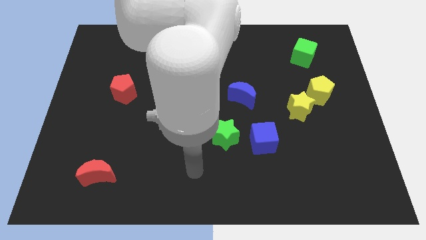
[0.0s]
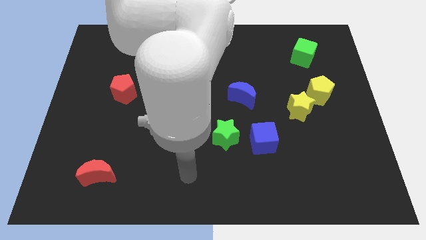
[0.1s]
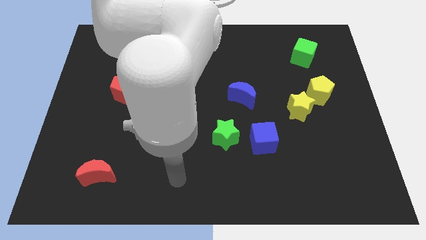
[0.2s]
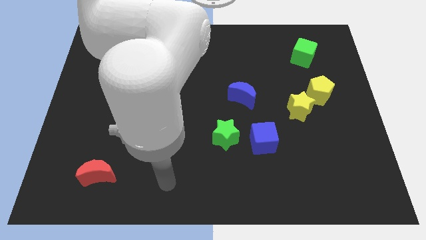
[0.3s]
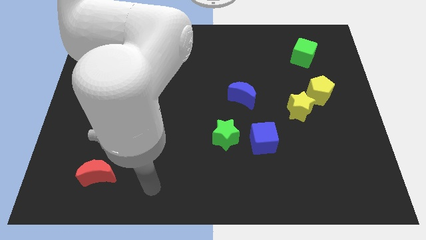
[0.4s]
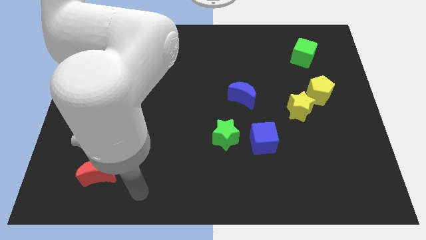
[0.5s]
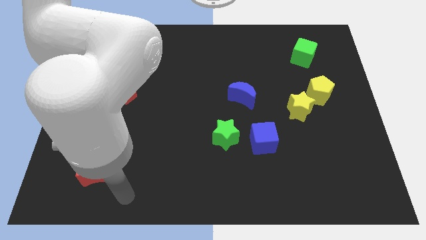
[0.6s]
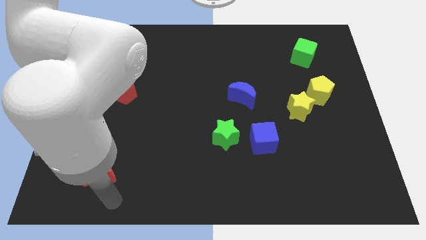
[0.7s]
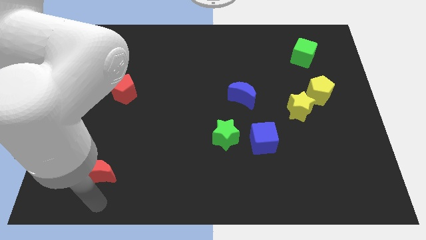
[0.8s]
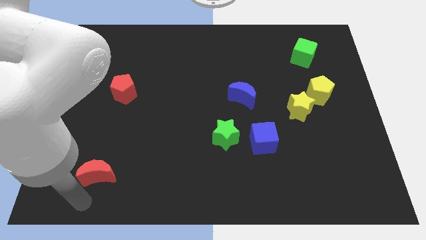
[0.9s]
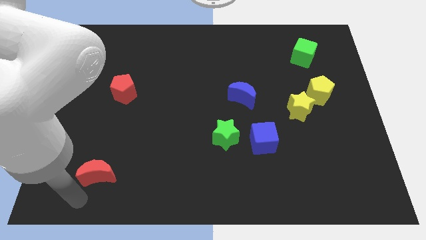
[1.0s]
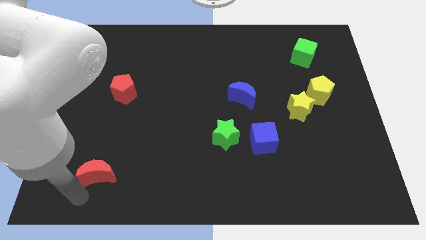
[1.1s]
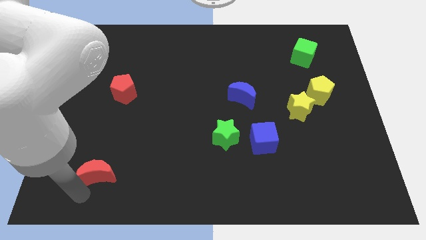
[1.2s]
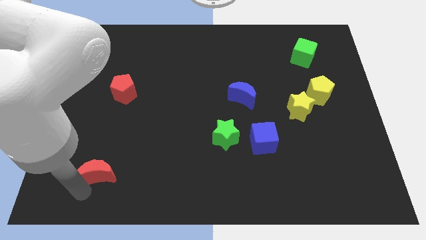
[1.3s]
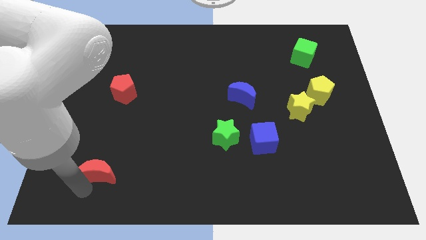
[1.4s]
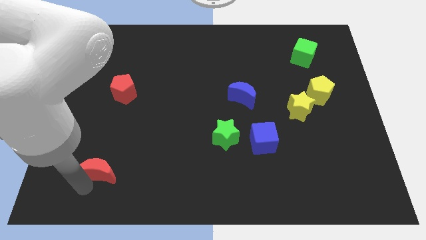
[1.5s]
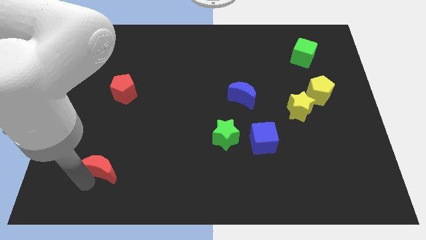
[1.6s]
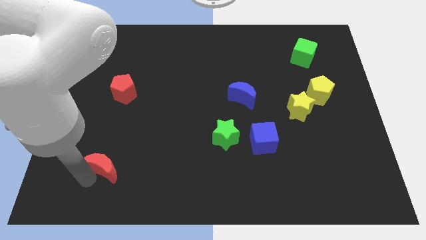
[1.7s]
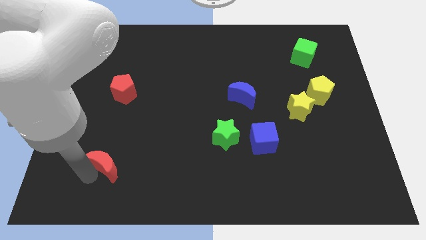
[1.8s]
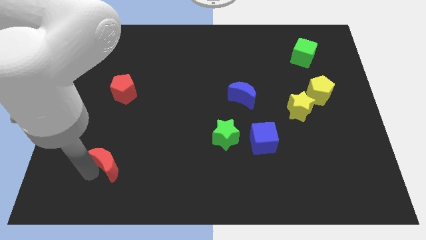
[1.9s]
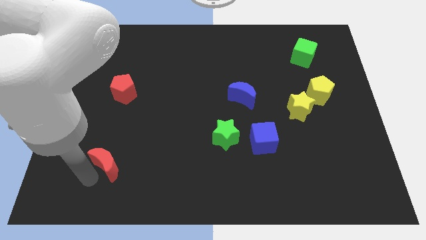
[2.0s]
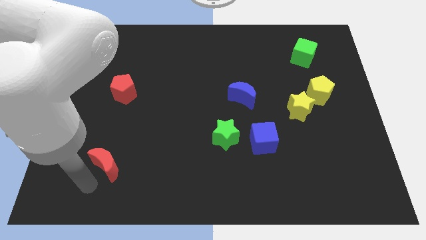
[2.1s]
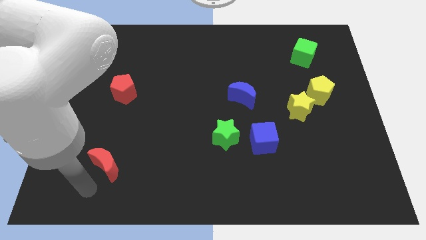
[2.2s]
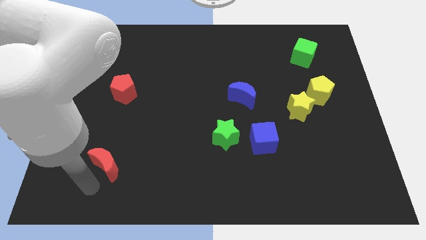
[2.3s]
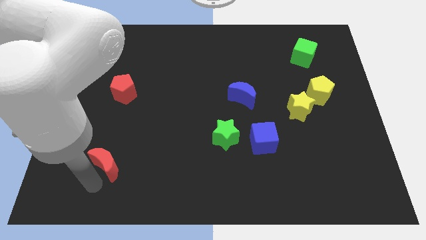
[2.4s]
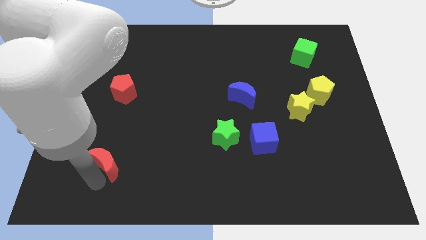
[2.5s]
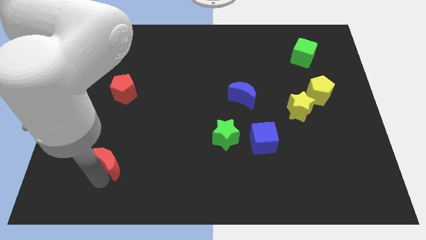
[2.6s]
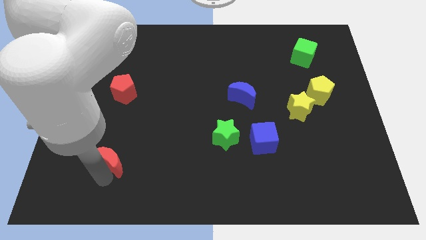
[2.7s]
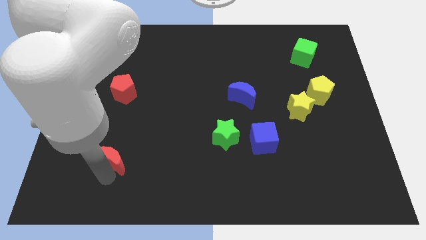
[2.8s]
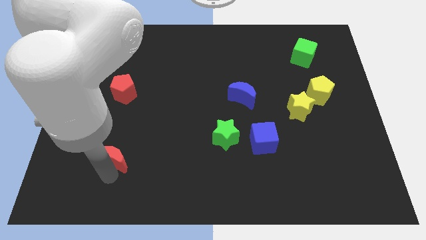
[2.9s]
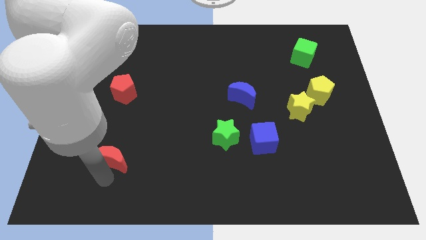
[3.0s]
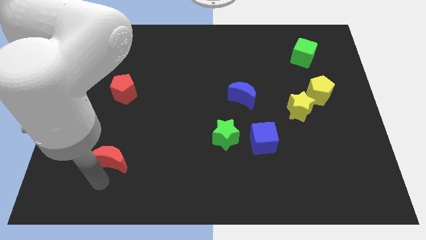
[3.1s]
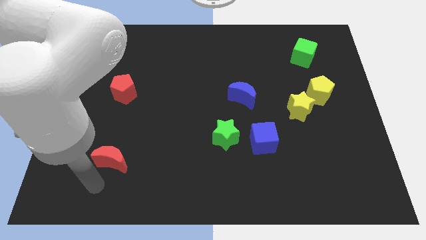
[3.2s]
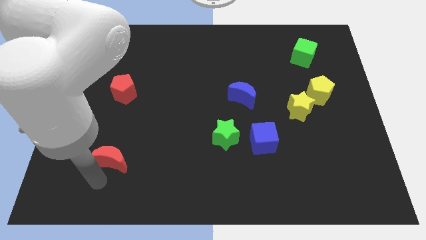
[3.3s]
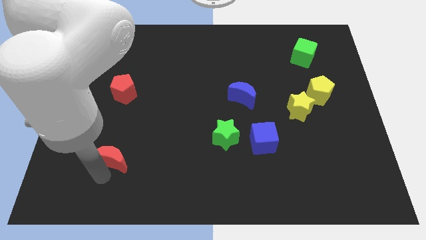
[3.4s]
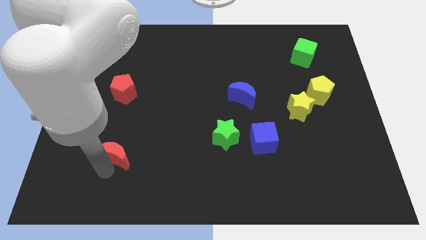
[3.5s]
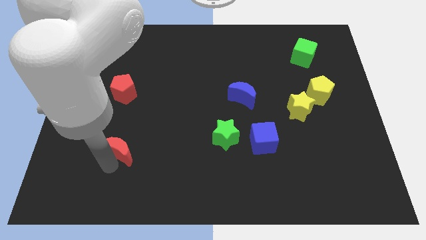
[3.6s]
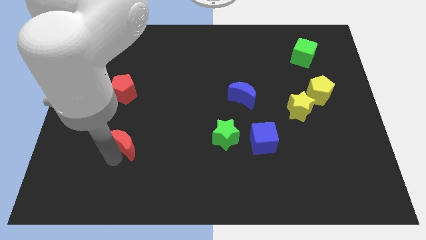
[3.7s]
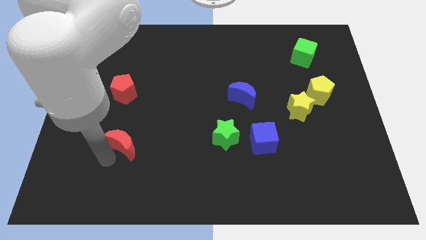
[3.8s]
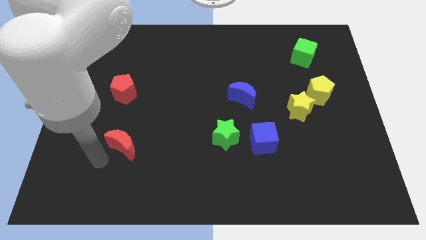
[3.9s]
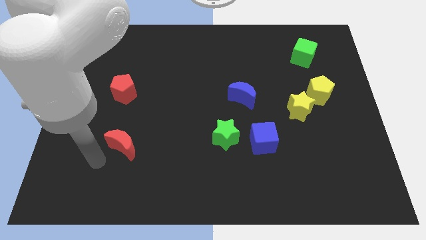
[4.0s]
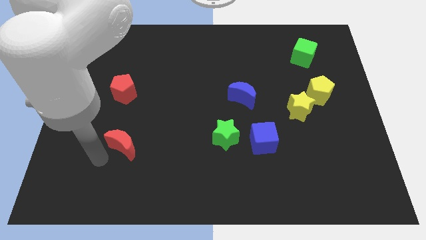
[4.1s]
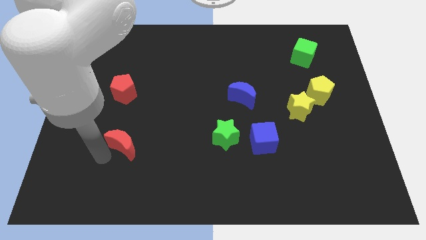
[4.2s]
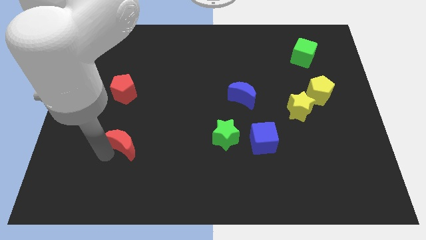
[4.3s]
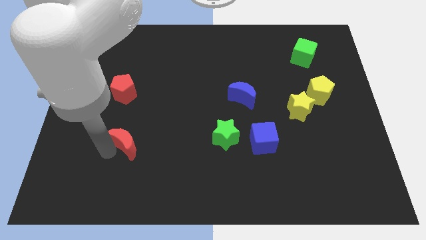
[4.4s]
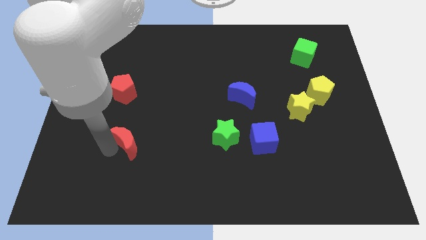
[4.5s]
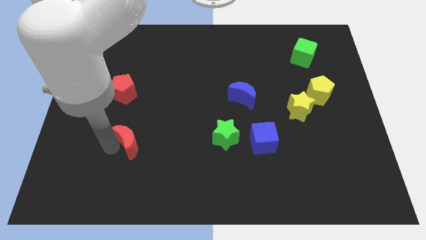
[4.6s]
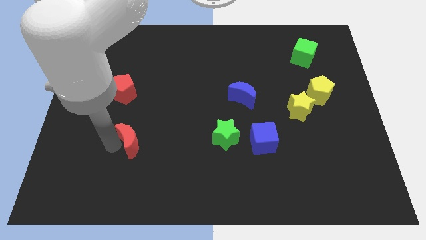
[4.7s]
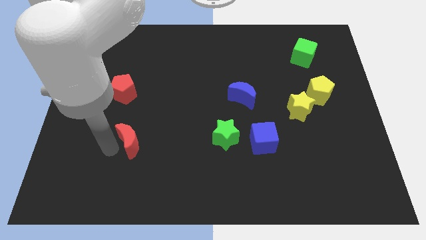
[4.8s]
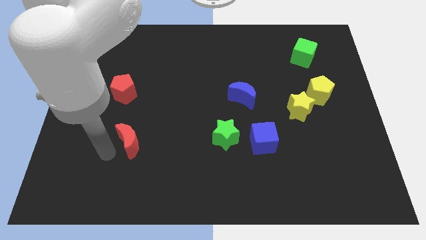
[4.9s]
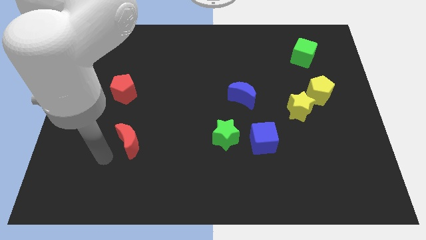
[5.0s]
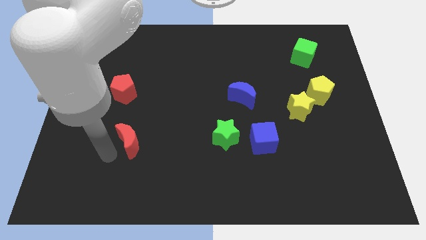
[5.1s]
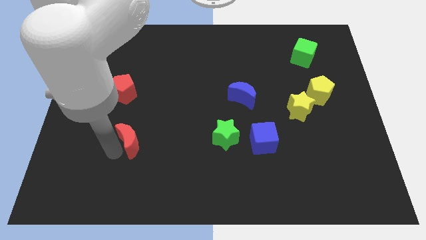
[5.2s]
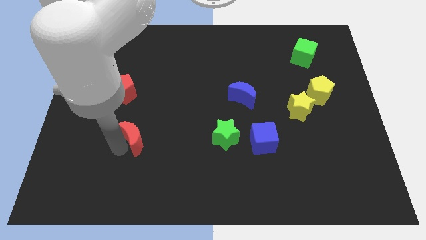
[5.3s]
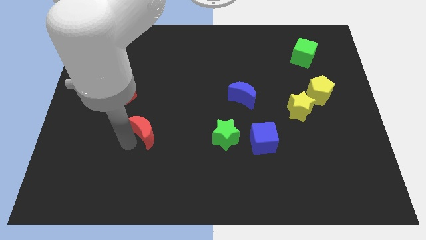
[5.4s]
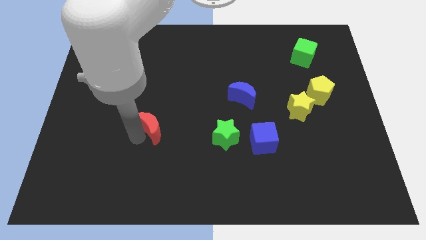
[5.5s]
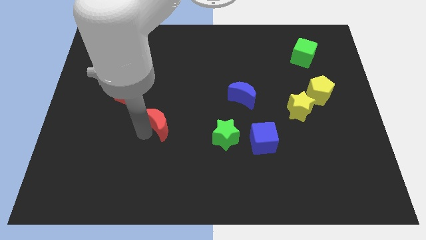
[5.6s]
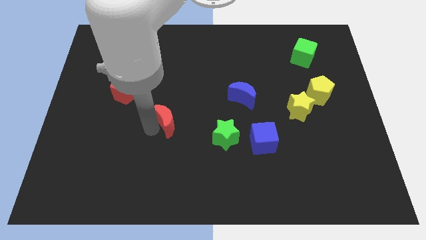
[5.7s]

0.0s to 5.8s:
move the red moon to the center
